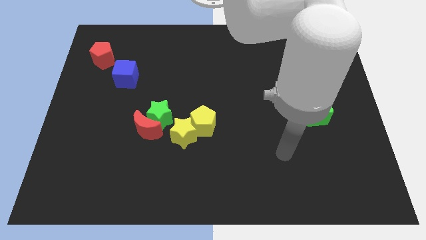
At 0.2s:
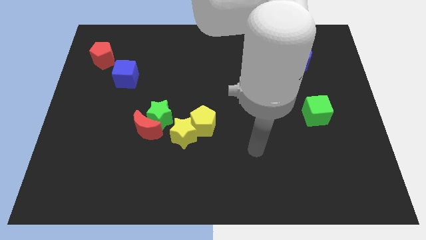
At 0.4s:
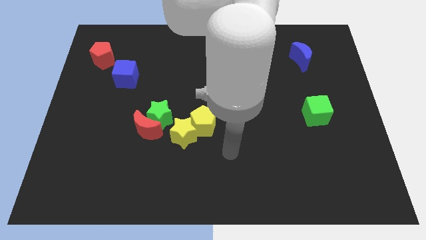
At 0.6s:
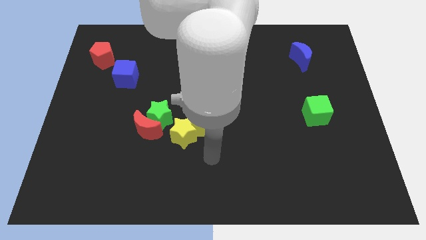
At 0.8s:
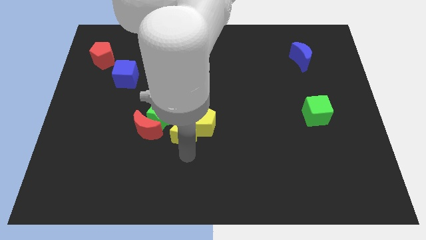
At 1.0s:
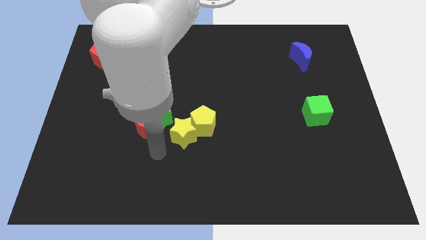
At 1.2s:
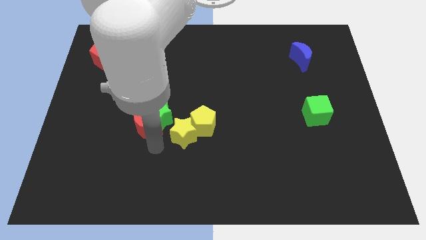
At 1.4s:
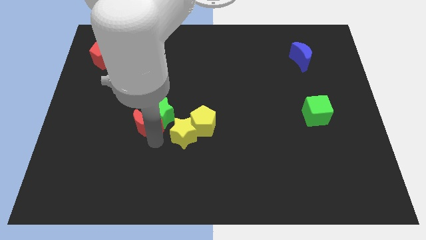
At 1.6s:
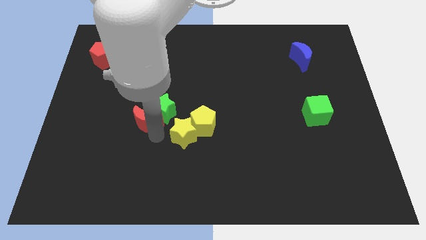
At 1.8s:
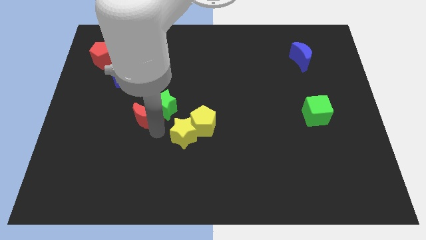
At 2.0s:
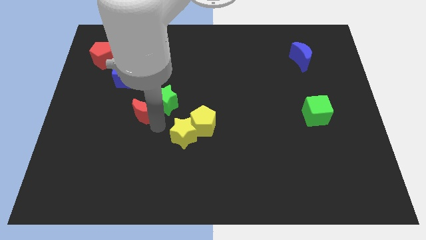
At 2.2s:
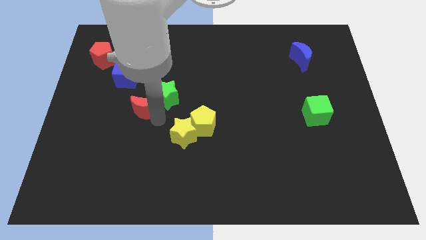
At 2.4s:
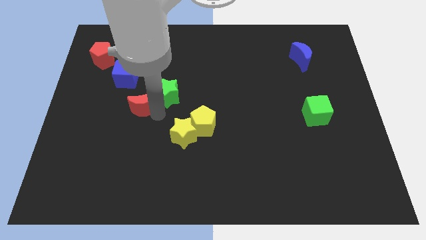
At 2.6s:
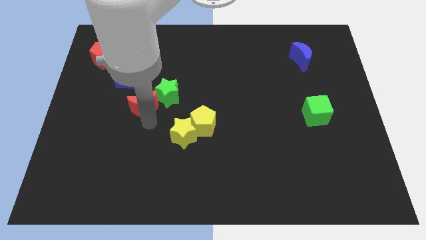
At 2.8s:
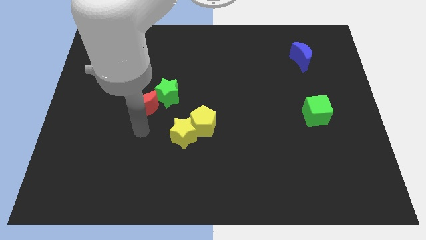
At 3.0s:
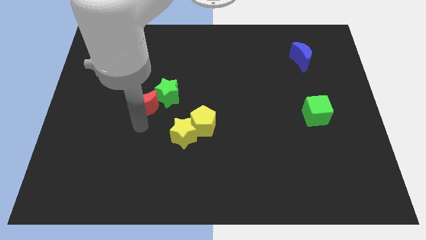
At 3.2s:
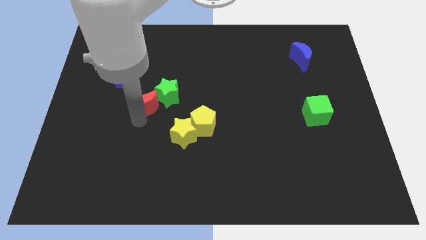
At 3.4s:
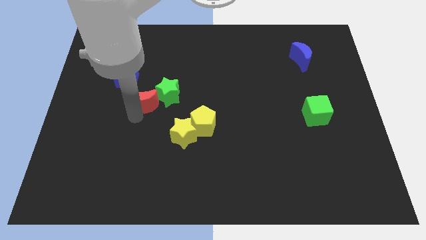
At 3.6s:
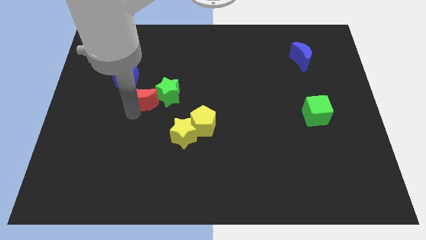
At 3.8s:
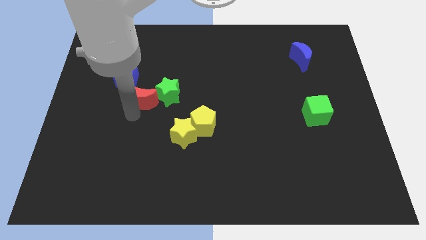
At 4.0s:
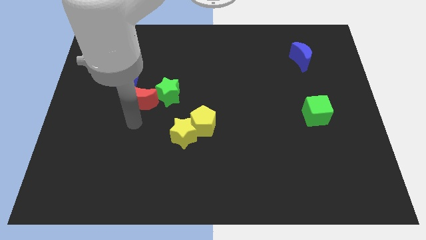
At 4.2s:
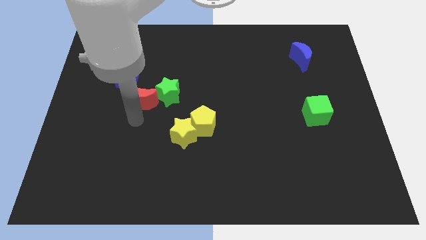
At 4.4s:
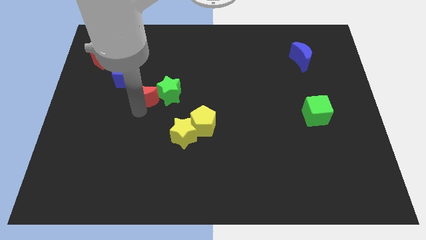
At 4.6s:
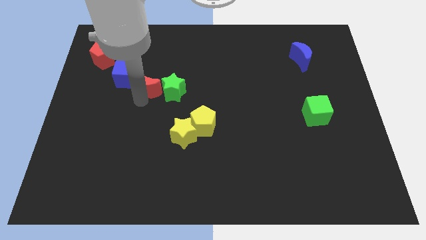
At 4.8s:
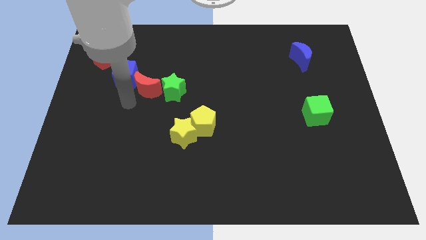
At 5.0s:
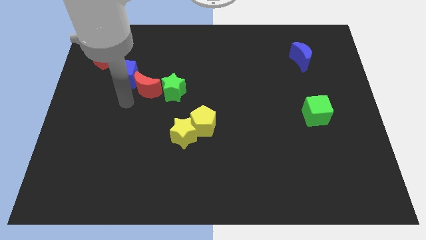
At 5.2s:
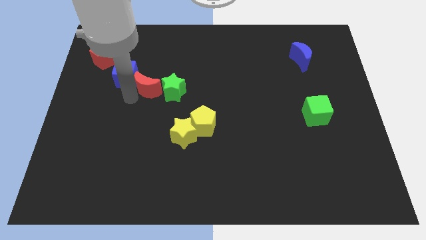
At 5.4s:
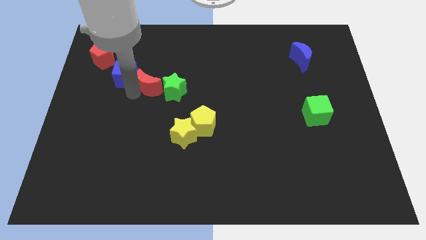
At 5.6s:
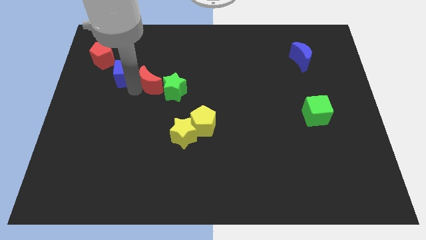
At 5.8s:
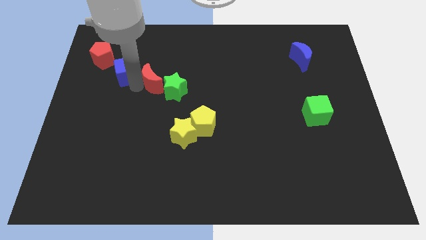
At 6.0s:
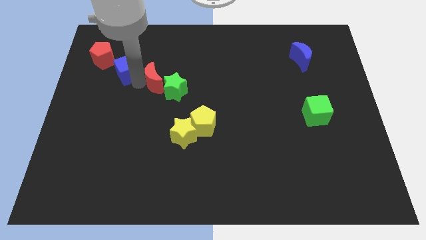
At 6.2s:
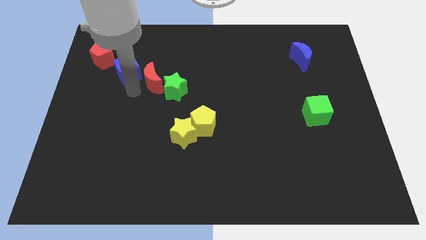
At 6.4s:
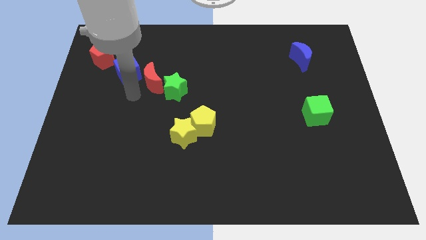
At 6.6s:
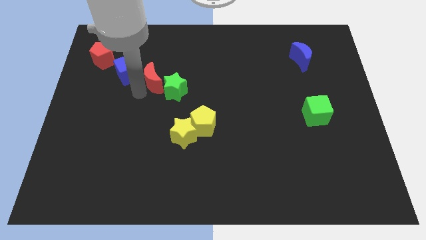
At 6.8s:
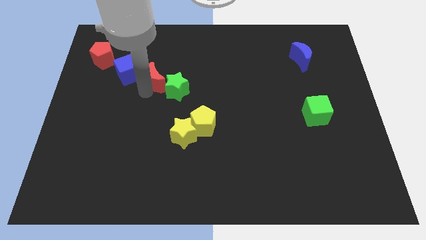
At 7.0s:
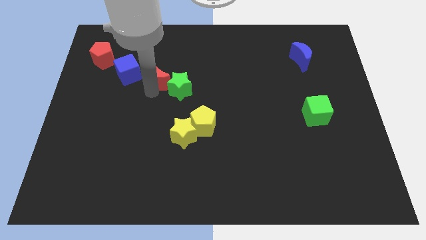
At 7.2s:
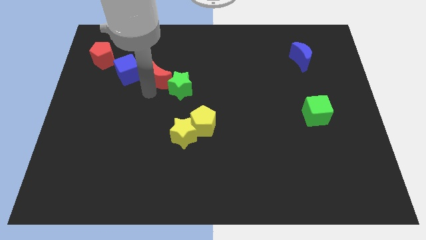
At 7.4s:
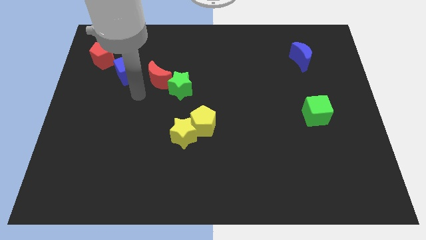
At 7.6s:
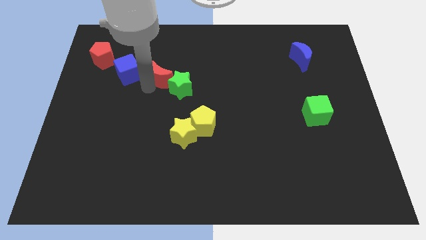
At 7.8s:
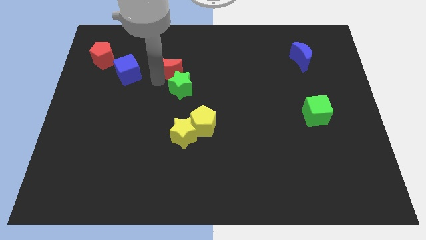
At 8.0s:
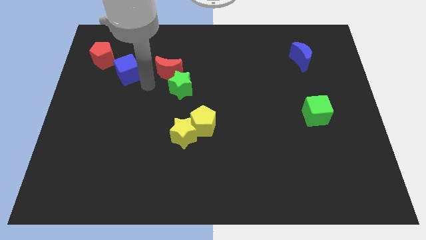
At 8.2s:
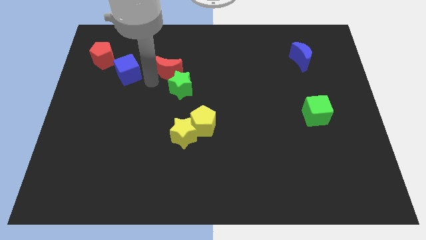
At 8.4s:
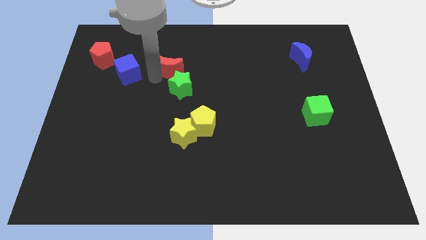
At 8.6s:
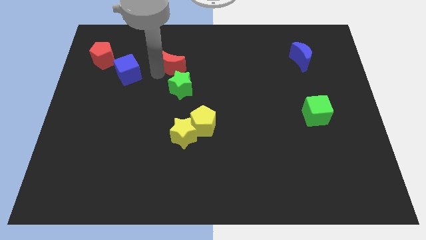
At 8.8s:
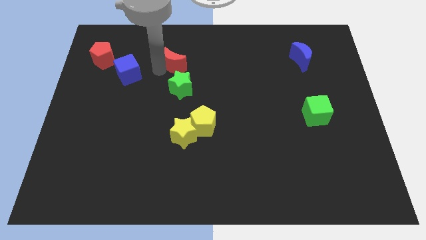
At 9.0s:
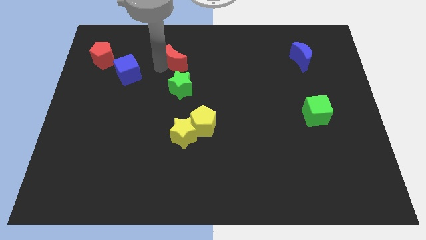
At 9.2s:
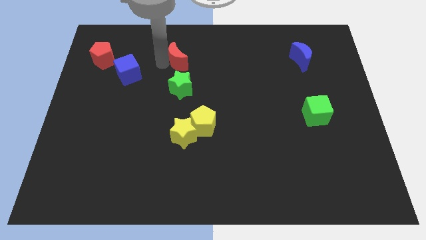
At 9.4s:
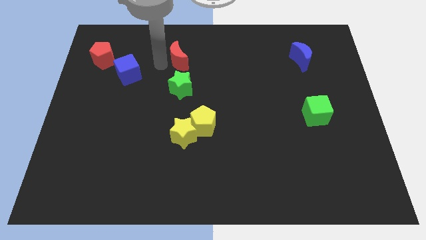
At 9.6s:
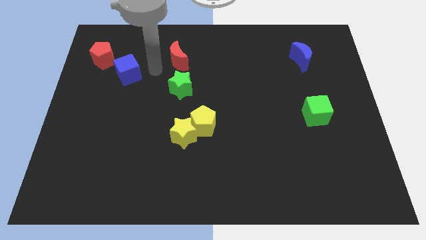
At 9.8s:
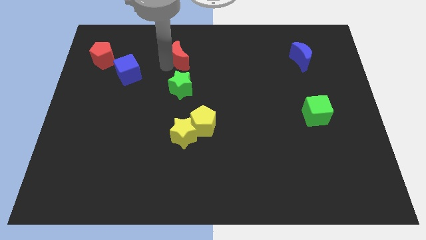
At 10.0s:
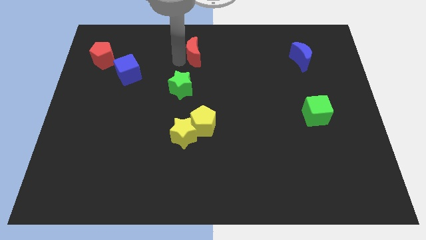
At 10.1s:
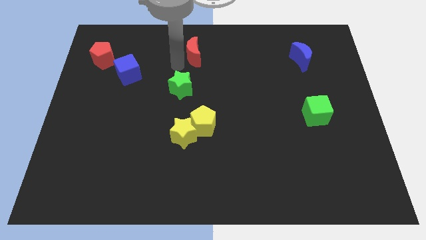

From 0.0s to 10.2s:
move the red moon to the top

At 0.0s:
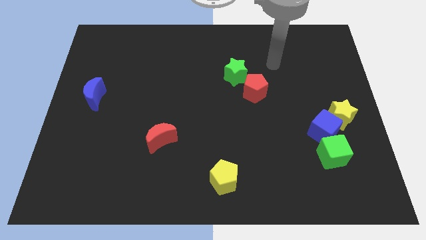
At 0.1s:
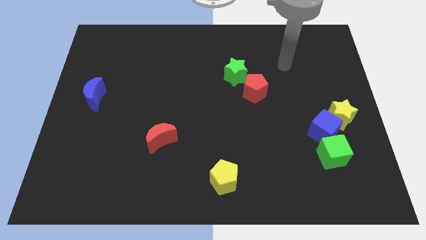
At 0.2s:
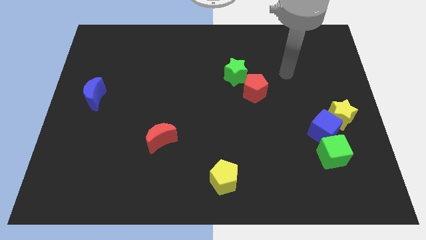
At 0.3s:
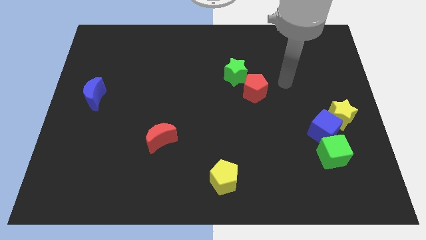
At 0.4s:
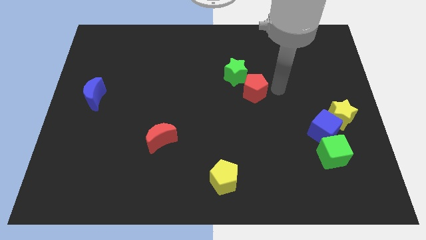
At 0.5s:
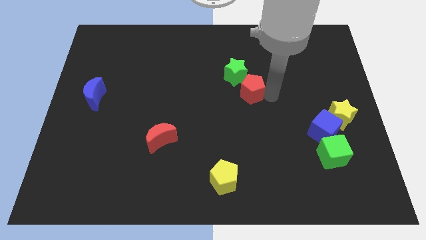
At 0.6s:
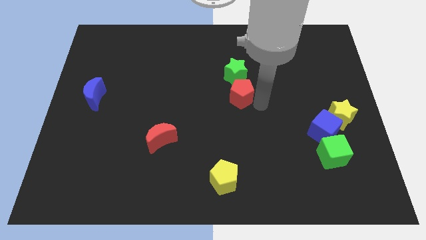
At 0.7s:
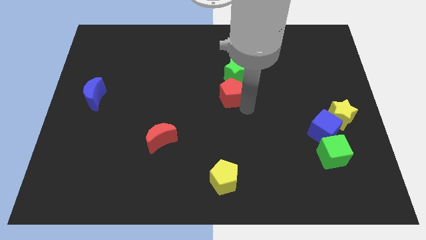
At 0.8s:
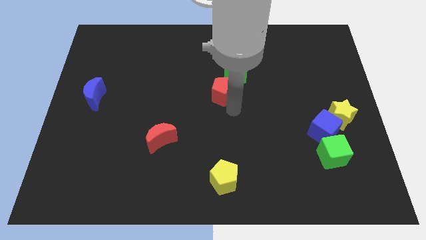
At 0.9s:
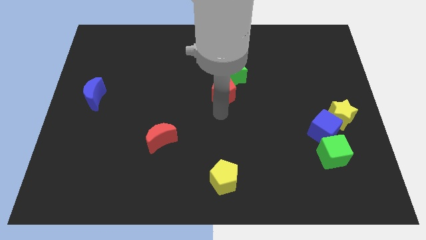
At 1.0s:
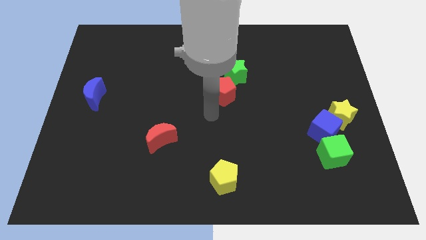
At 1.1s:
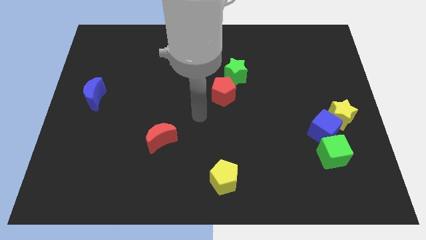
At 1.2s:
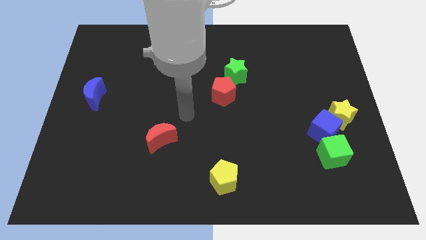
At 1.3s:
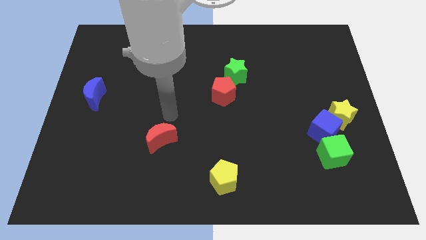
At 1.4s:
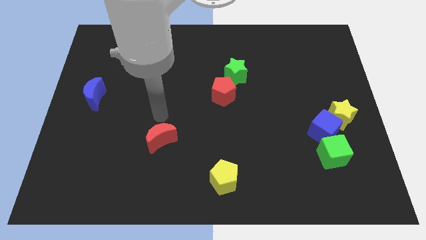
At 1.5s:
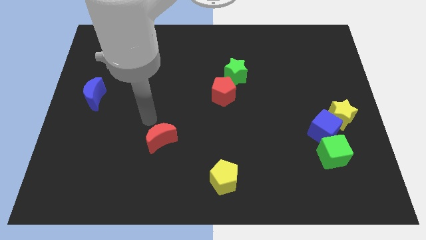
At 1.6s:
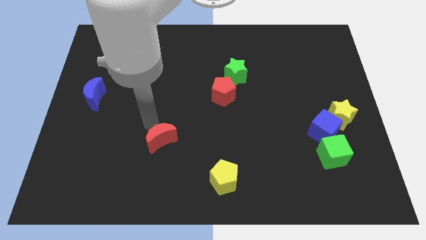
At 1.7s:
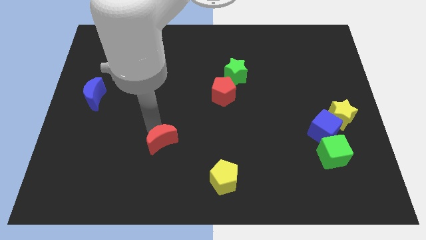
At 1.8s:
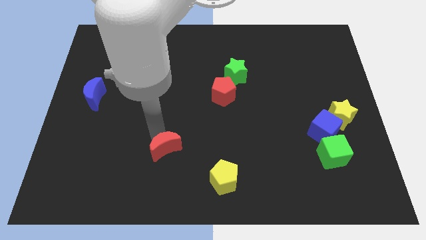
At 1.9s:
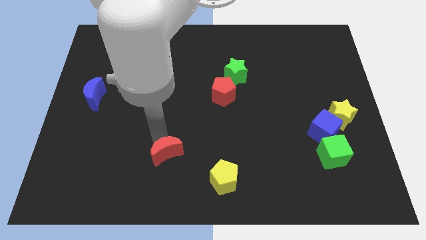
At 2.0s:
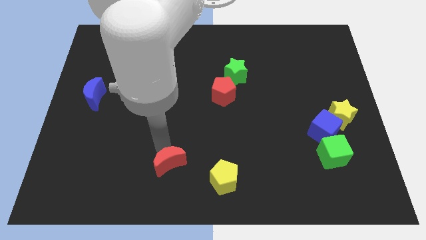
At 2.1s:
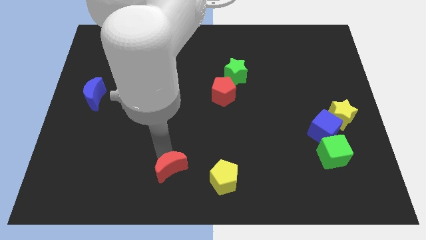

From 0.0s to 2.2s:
push the red moon to the bottom side
